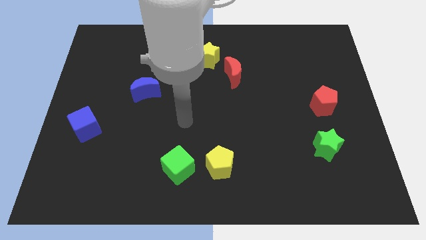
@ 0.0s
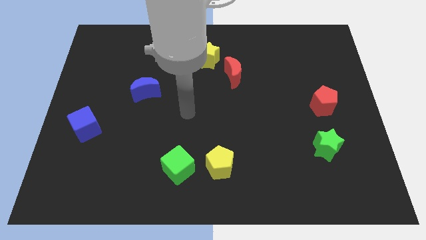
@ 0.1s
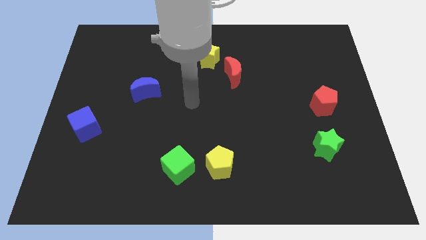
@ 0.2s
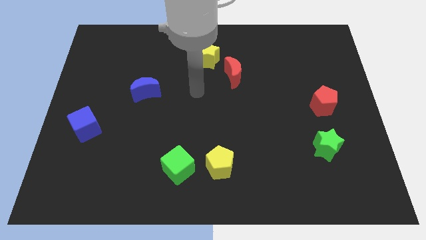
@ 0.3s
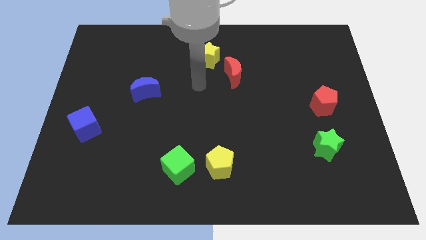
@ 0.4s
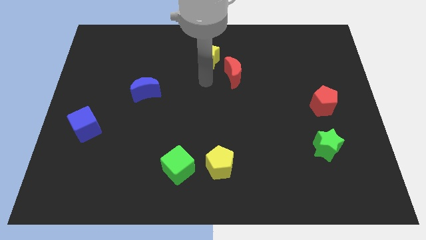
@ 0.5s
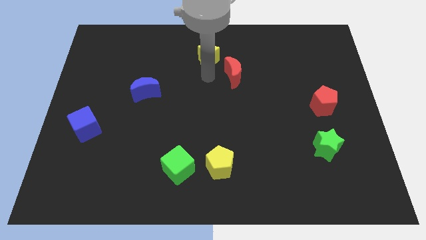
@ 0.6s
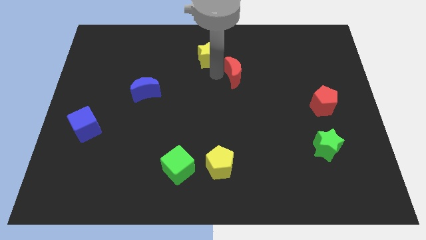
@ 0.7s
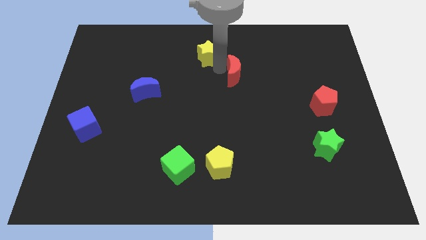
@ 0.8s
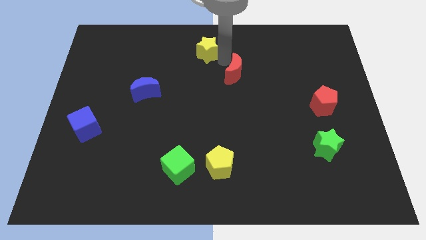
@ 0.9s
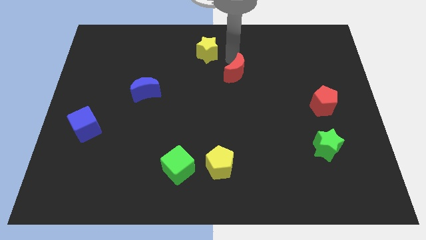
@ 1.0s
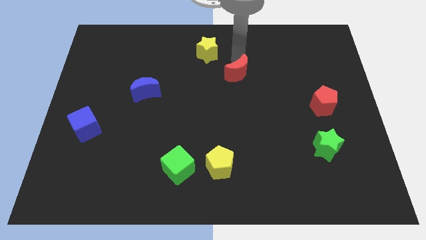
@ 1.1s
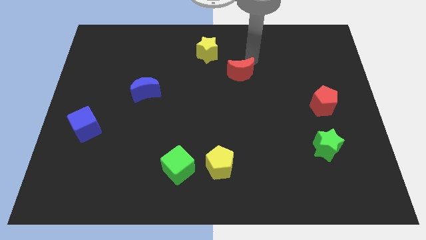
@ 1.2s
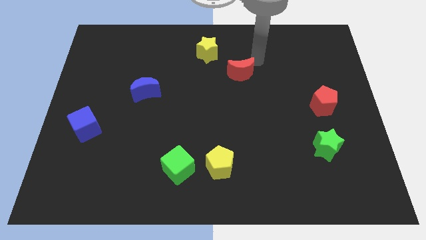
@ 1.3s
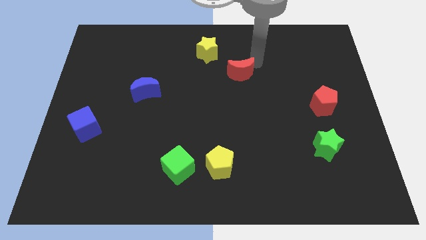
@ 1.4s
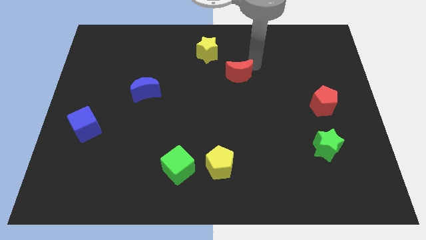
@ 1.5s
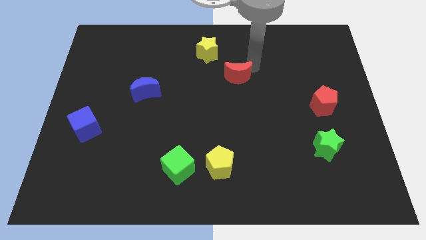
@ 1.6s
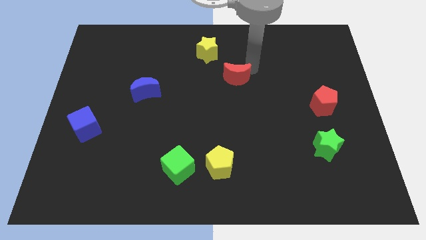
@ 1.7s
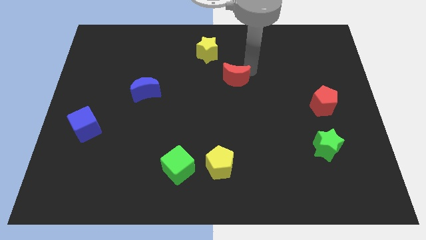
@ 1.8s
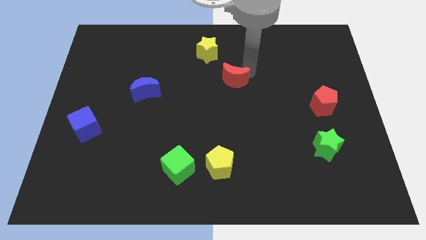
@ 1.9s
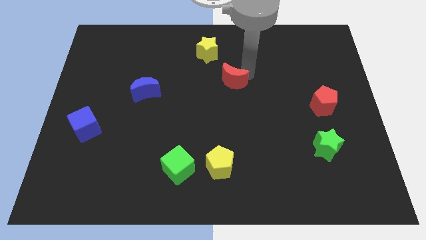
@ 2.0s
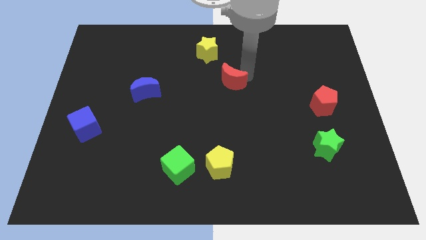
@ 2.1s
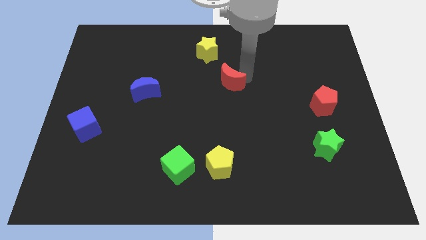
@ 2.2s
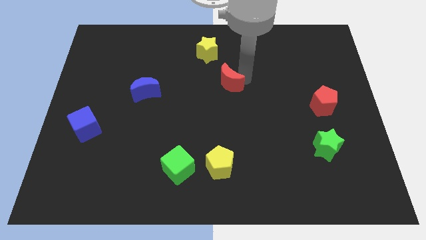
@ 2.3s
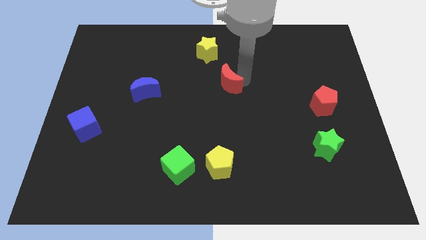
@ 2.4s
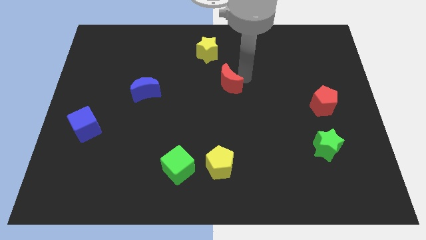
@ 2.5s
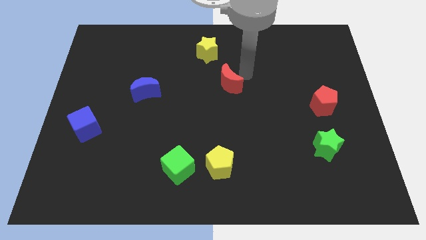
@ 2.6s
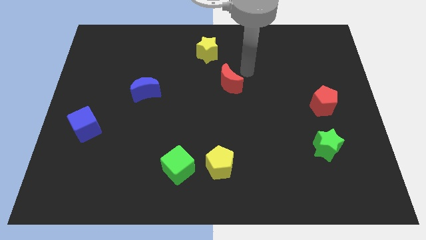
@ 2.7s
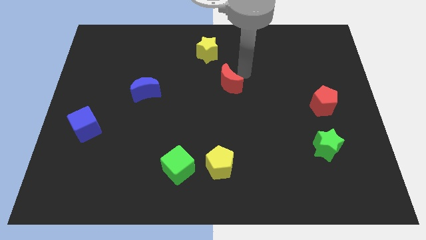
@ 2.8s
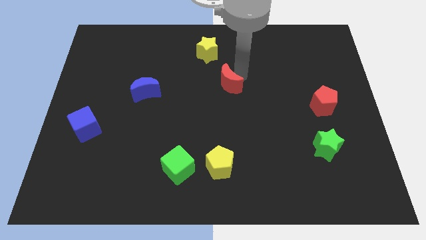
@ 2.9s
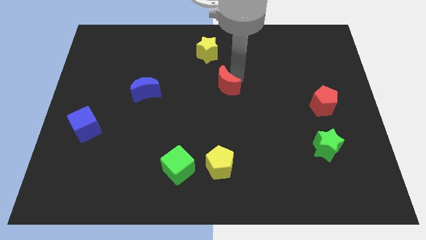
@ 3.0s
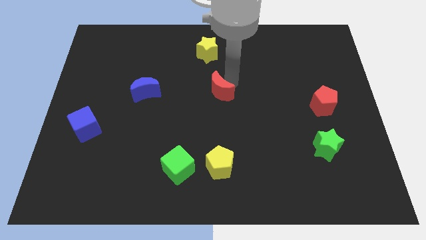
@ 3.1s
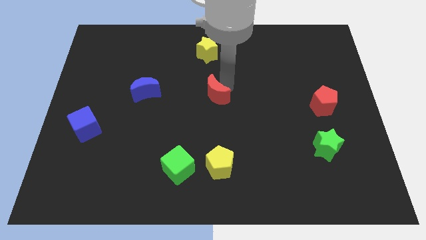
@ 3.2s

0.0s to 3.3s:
push the red moon down and left somewhat

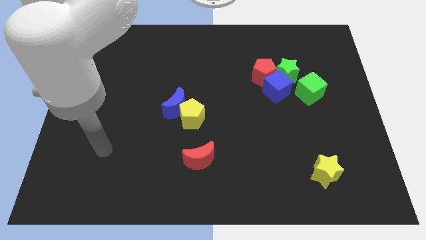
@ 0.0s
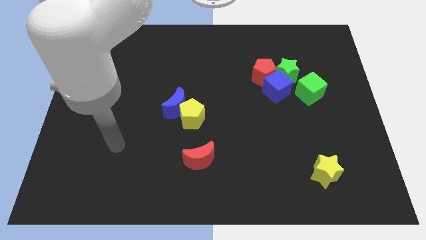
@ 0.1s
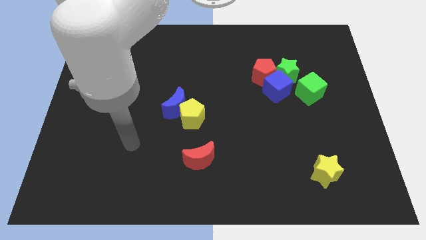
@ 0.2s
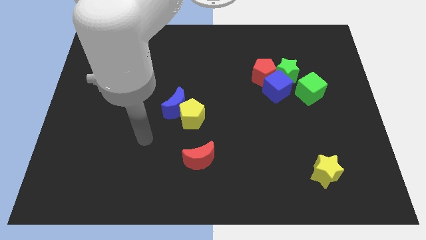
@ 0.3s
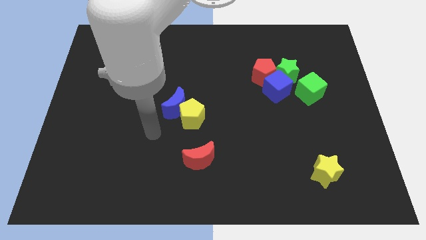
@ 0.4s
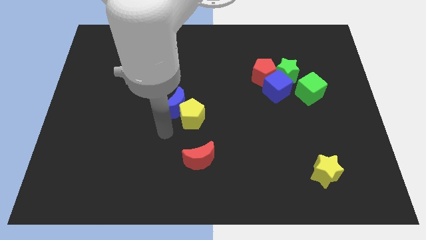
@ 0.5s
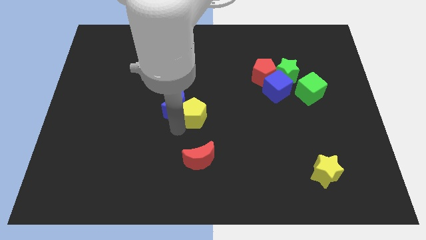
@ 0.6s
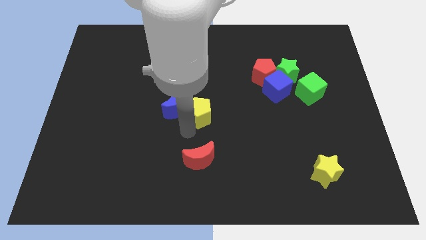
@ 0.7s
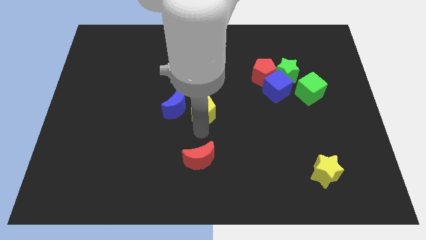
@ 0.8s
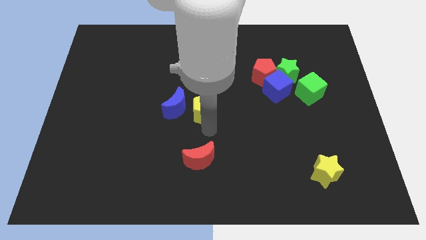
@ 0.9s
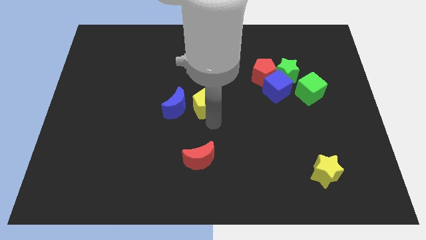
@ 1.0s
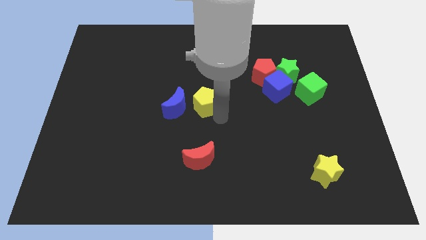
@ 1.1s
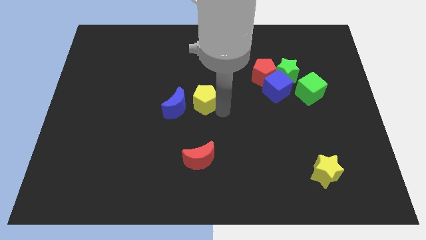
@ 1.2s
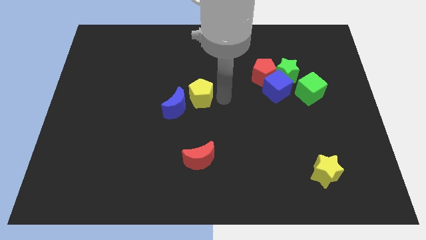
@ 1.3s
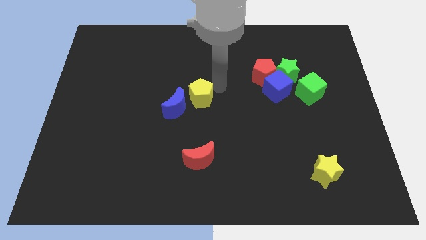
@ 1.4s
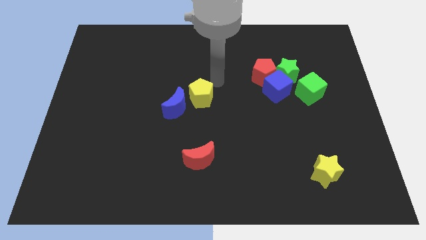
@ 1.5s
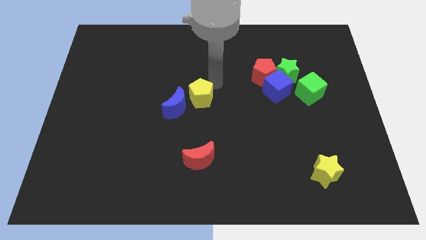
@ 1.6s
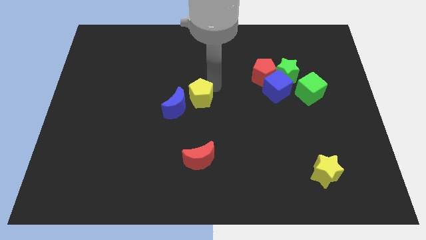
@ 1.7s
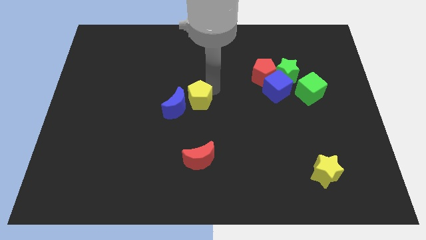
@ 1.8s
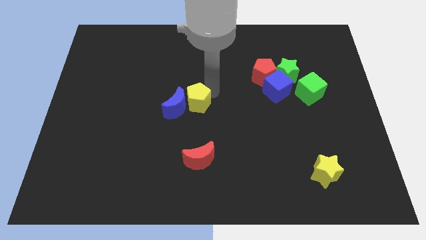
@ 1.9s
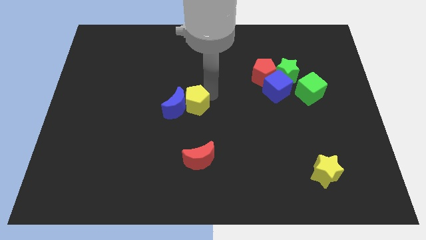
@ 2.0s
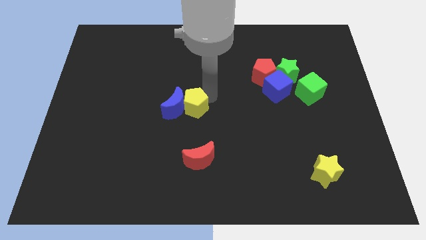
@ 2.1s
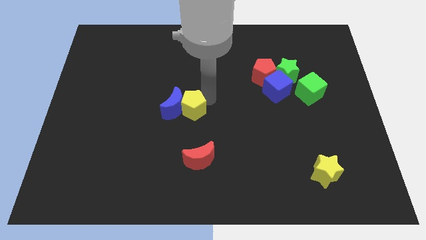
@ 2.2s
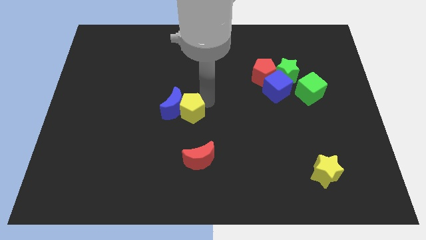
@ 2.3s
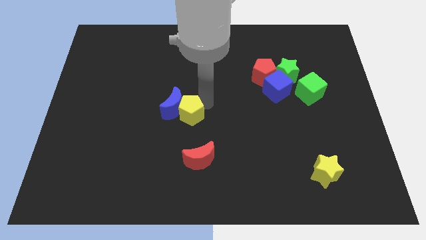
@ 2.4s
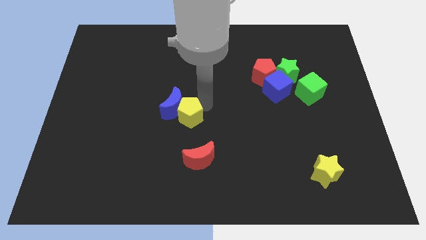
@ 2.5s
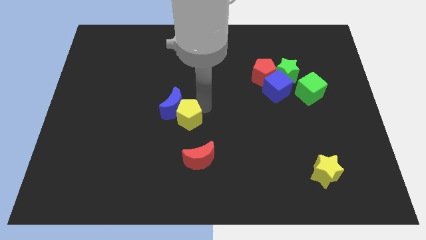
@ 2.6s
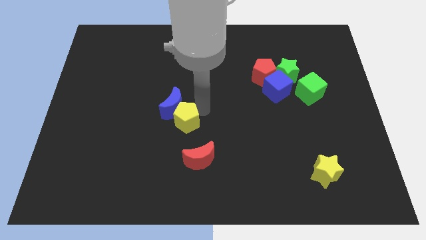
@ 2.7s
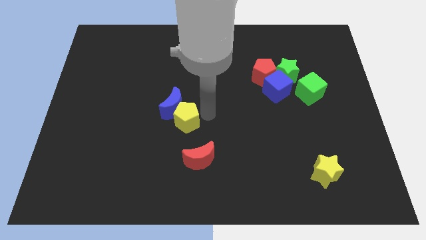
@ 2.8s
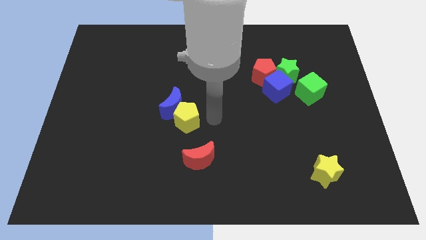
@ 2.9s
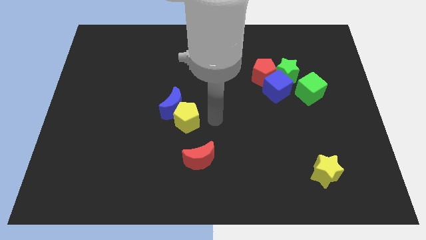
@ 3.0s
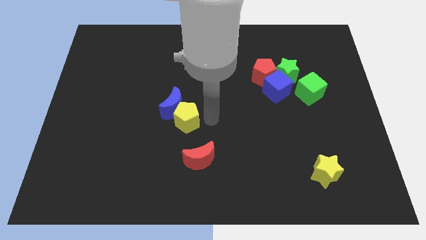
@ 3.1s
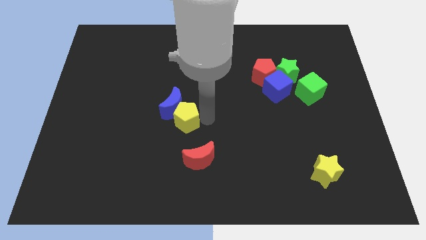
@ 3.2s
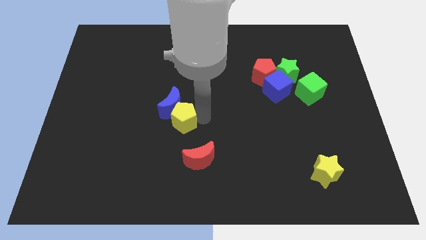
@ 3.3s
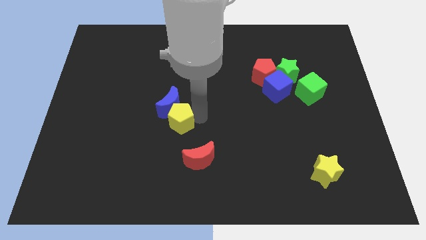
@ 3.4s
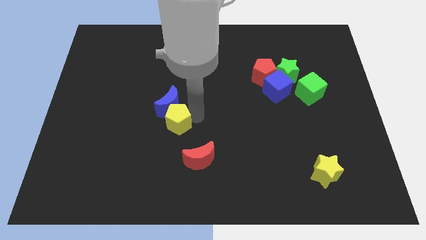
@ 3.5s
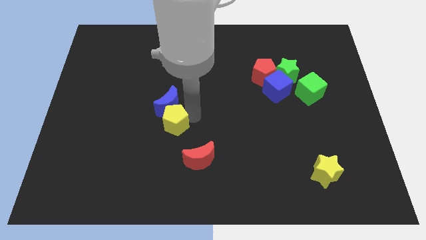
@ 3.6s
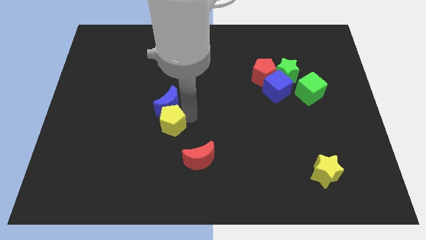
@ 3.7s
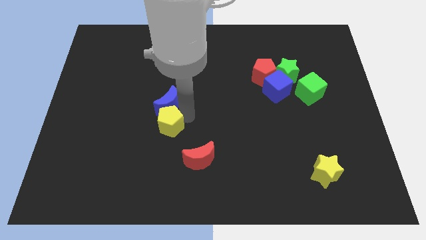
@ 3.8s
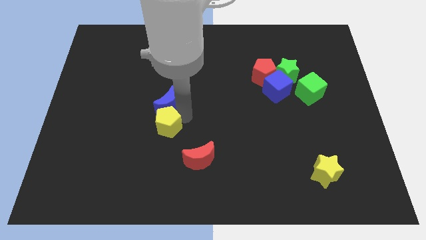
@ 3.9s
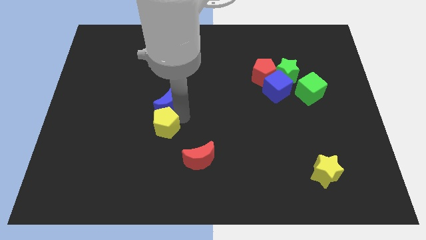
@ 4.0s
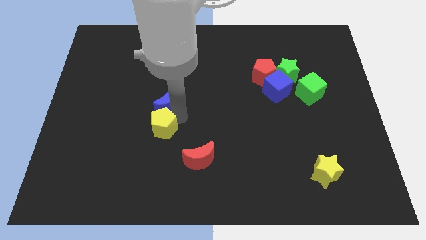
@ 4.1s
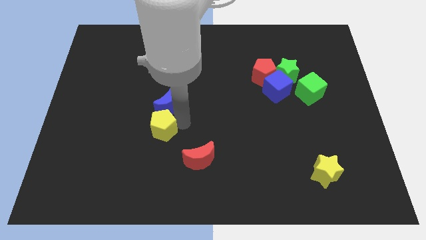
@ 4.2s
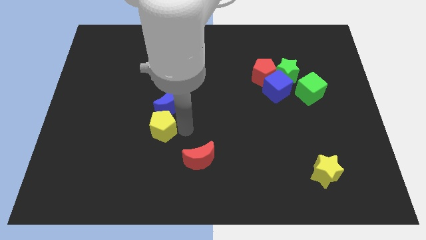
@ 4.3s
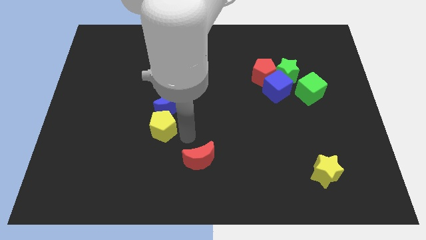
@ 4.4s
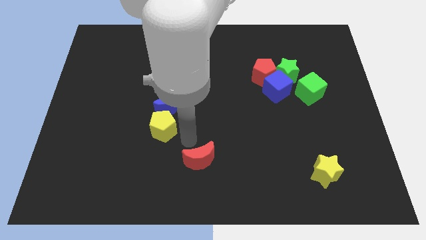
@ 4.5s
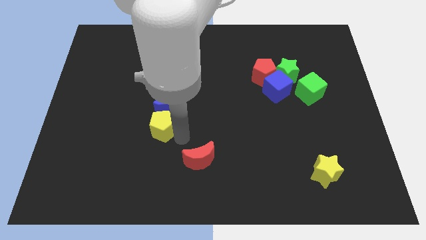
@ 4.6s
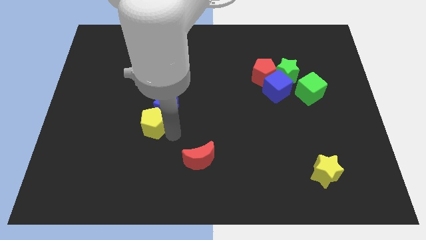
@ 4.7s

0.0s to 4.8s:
slightly slide the yellow pentagon to the left

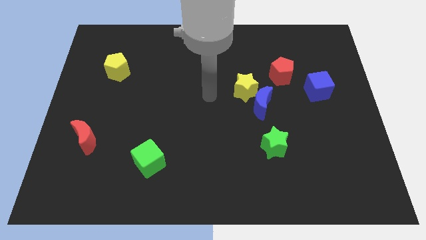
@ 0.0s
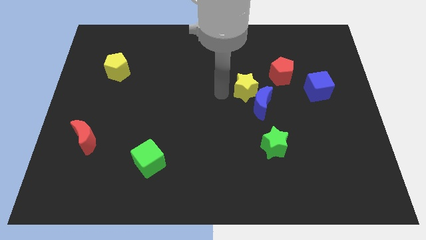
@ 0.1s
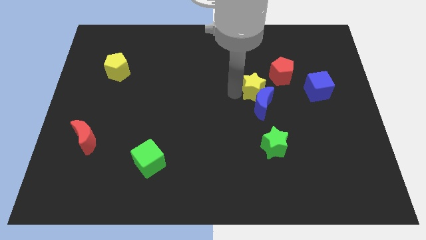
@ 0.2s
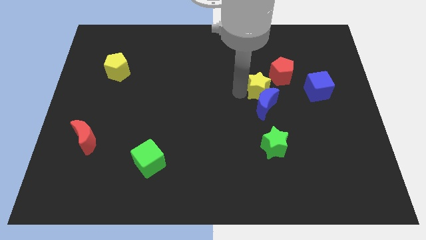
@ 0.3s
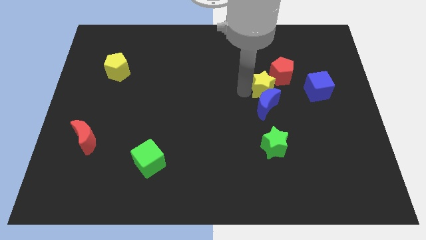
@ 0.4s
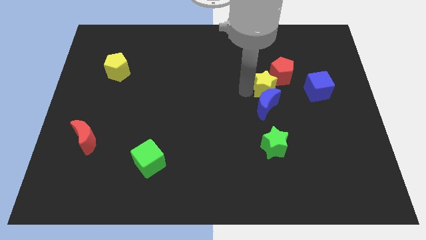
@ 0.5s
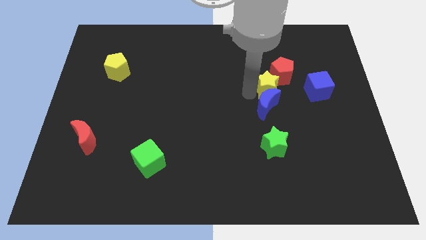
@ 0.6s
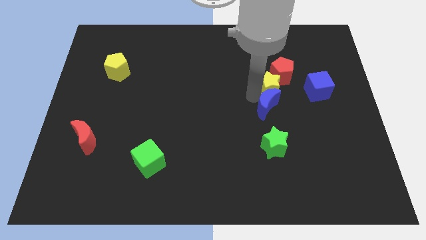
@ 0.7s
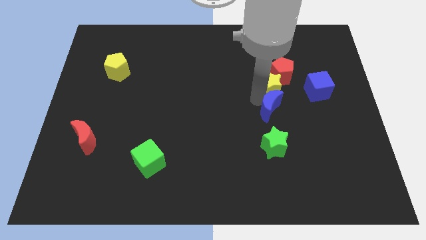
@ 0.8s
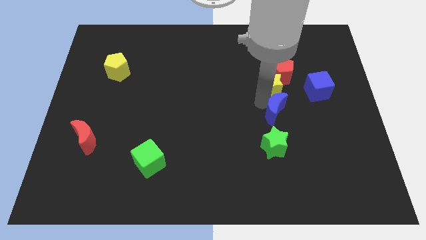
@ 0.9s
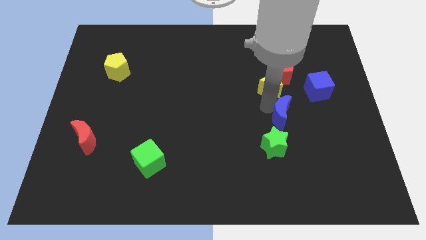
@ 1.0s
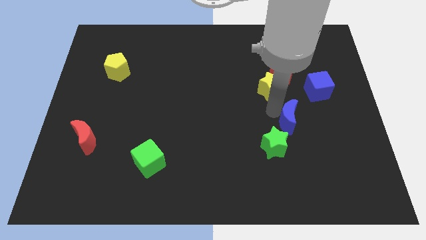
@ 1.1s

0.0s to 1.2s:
move the blue moon down and then right slightly
